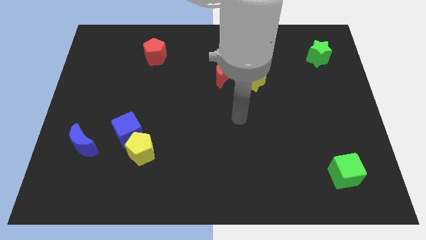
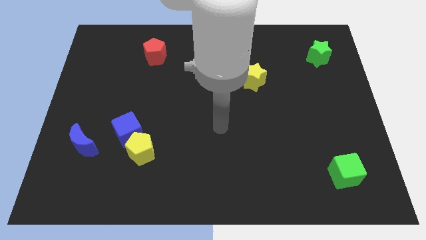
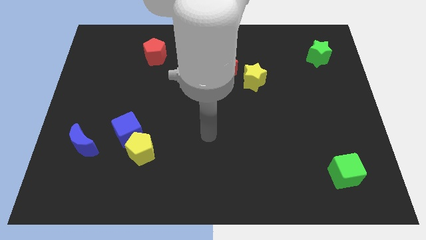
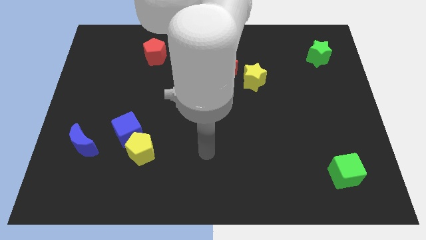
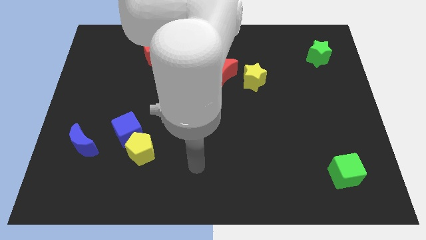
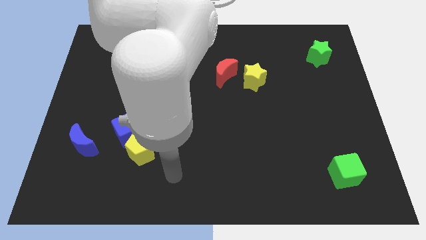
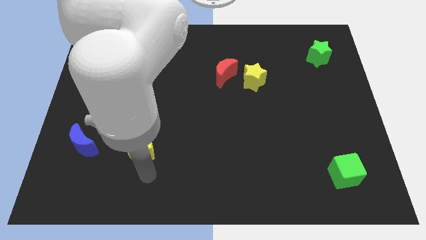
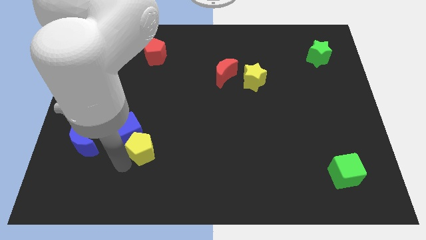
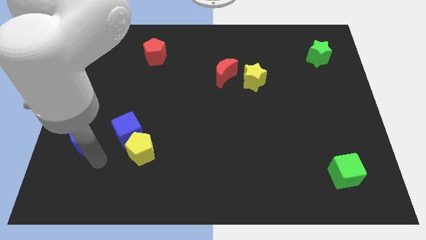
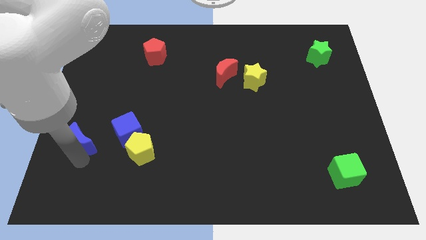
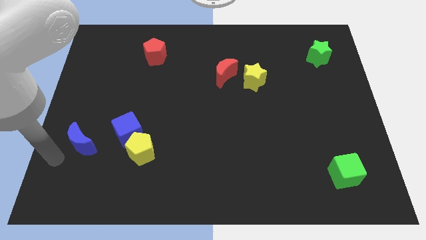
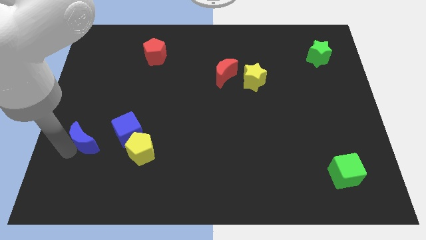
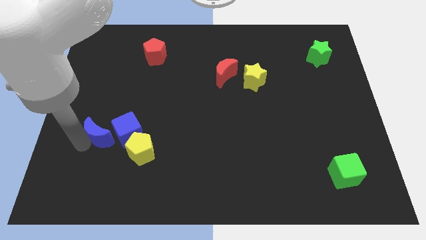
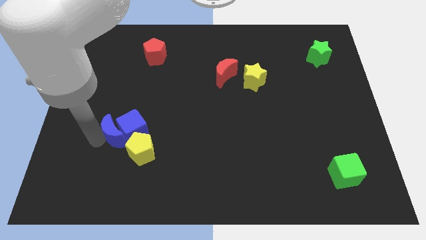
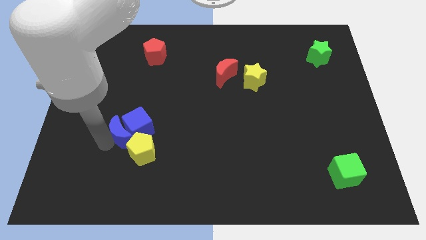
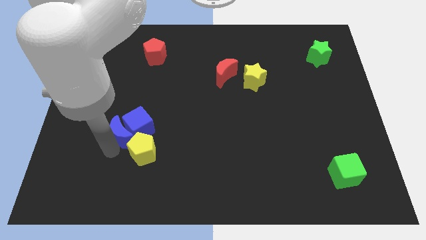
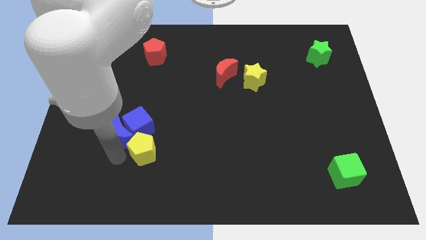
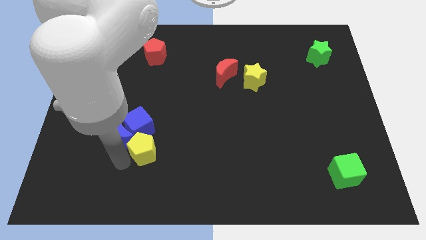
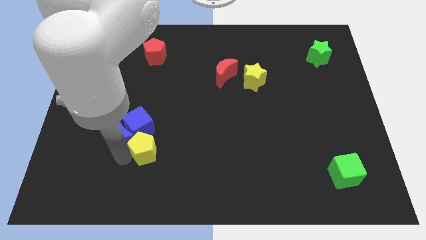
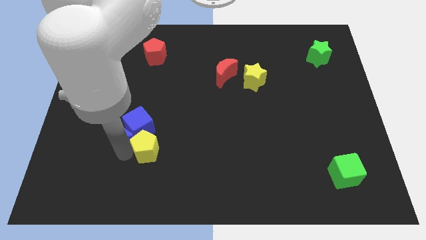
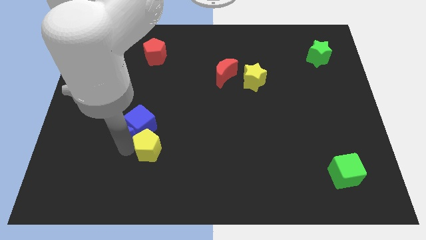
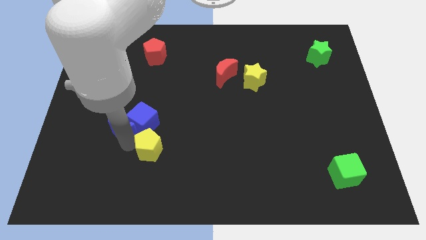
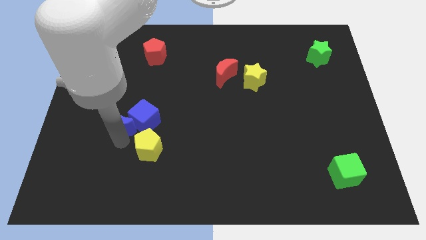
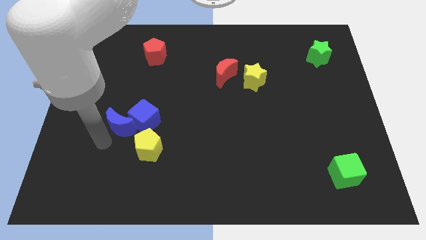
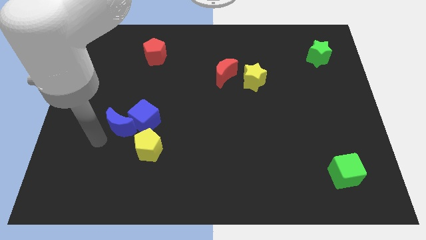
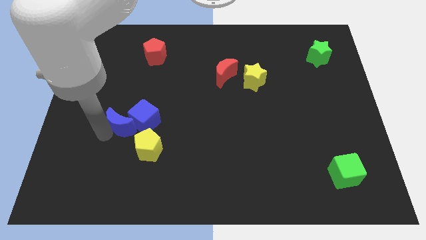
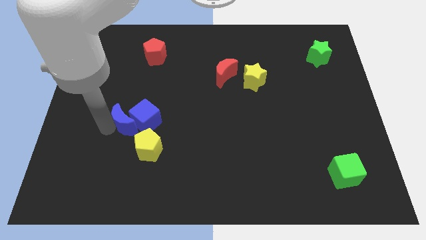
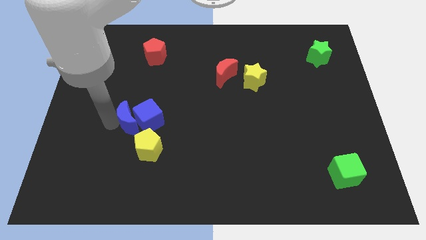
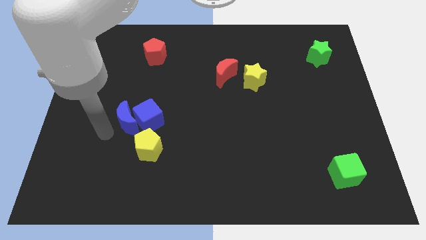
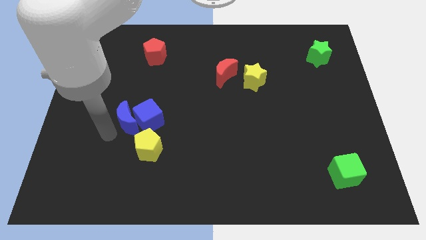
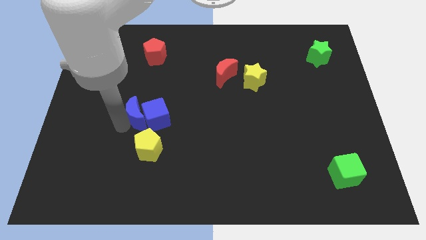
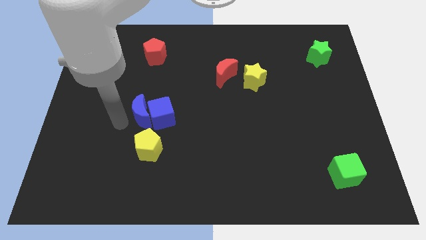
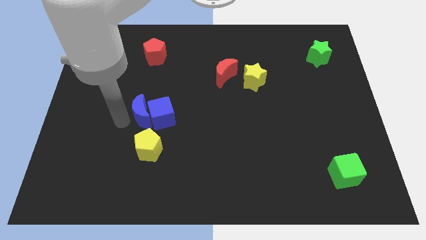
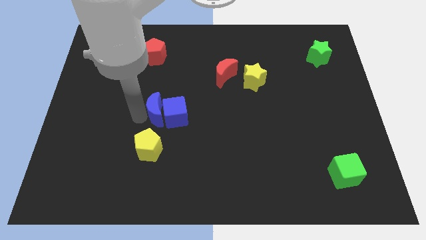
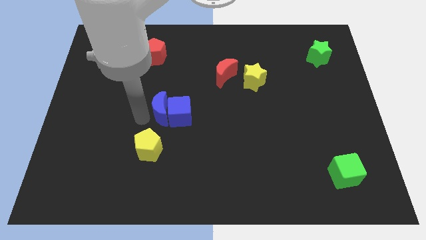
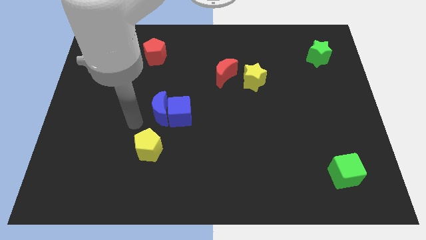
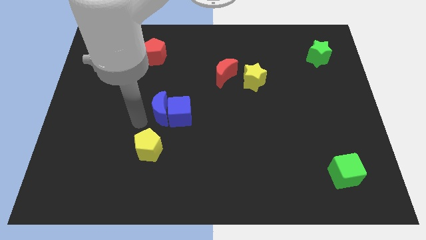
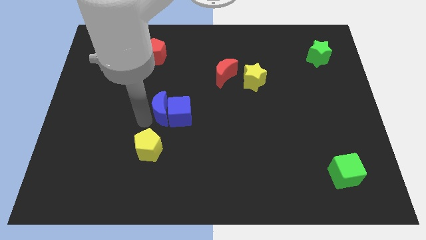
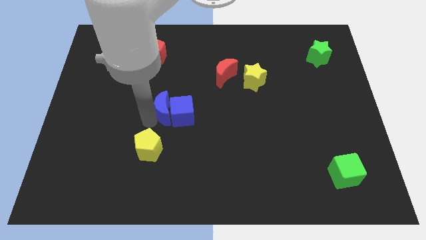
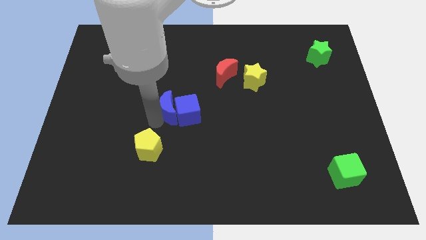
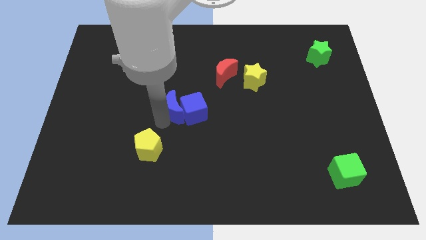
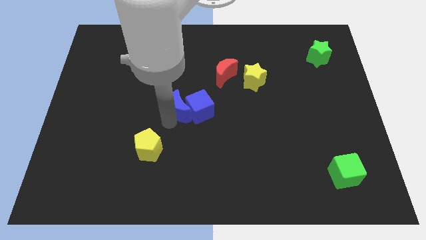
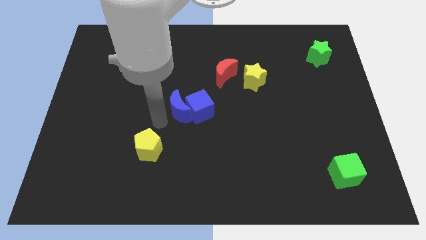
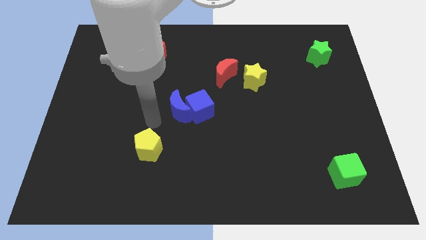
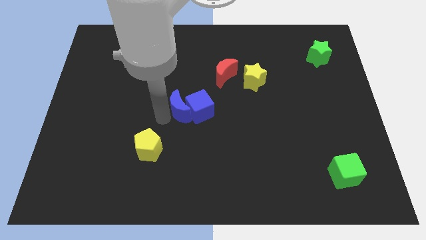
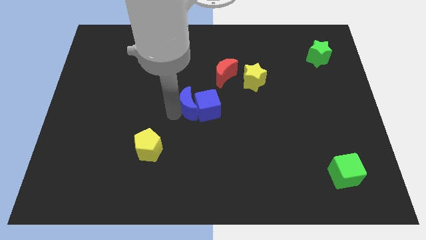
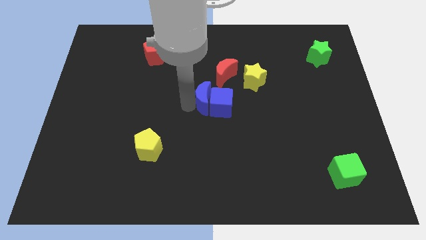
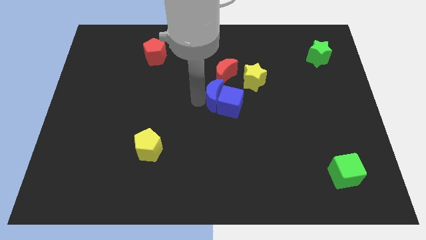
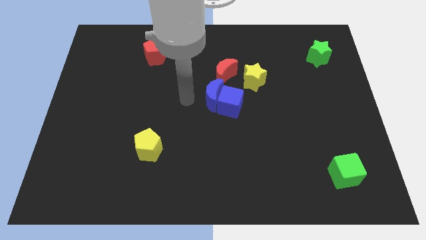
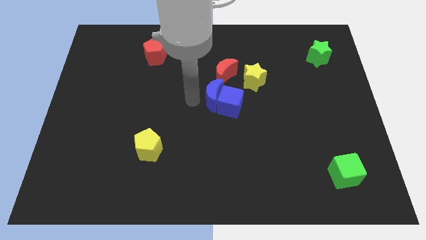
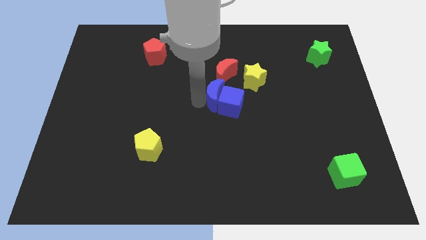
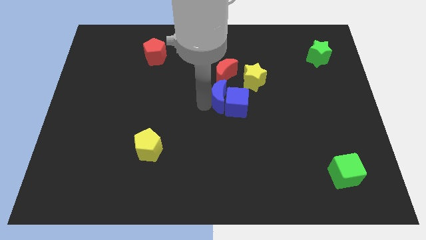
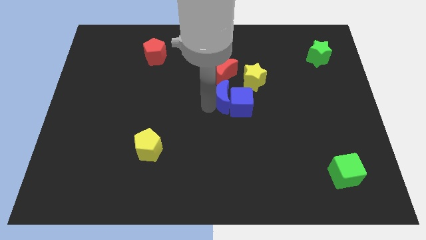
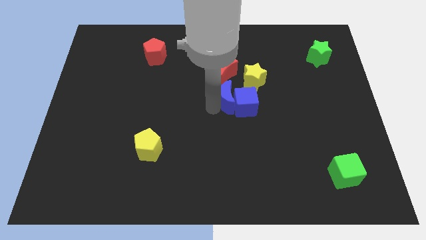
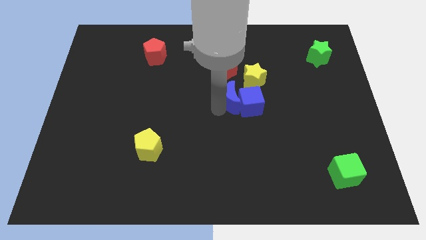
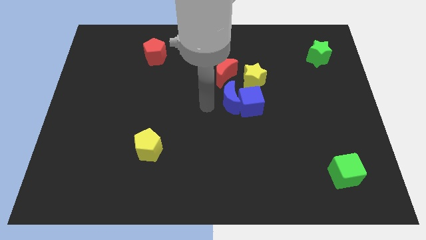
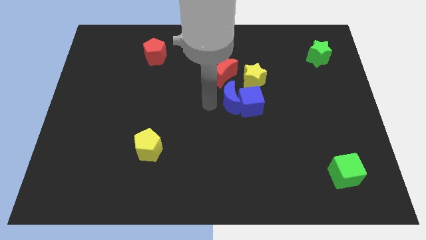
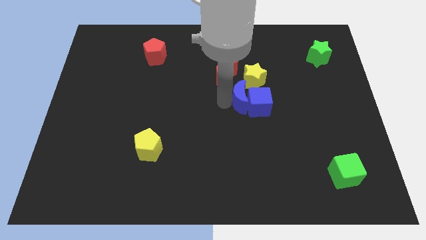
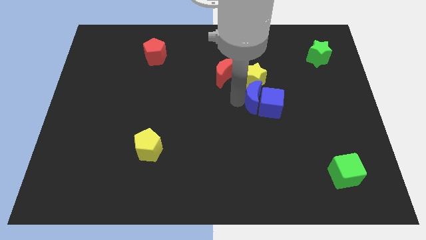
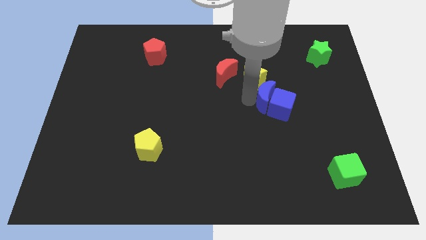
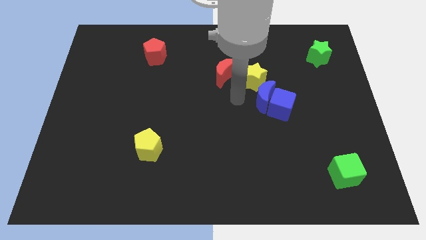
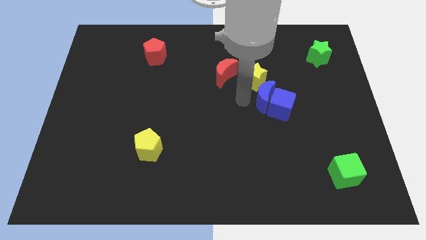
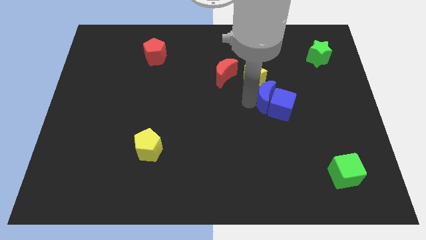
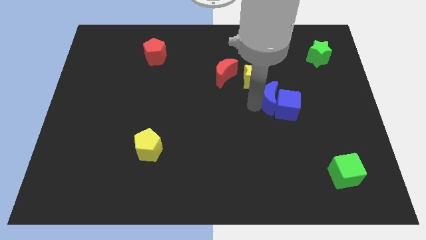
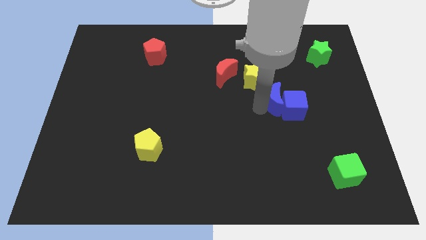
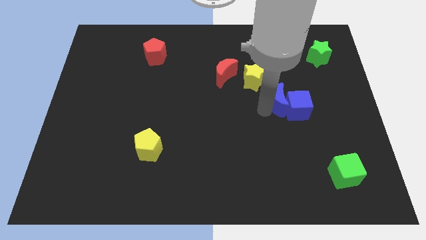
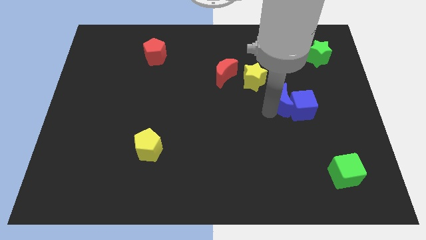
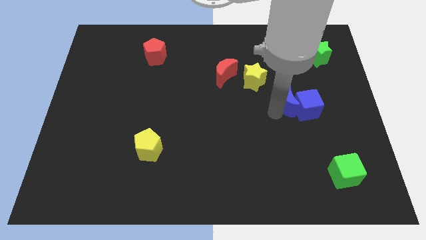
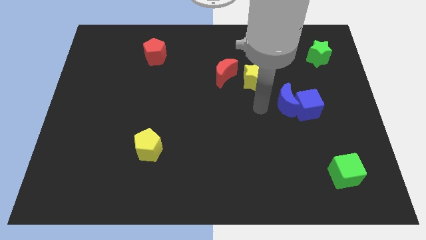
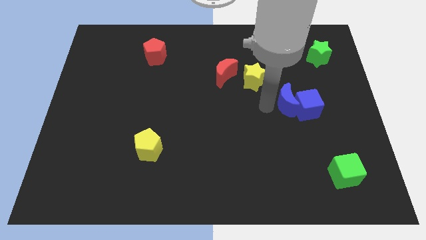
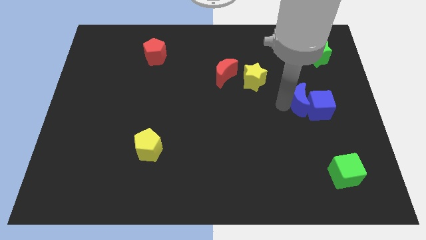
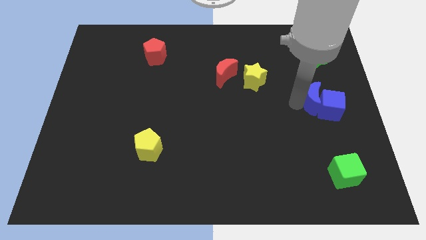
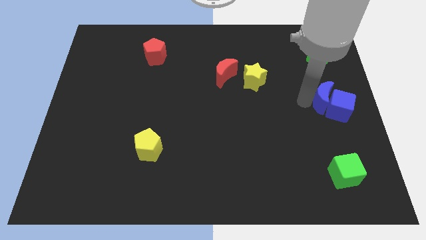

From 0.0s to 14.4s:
push the blue moon to the center right
